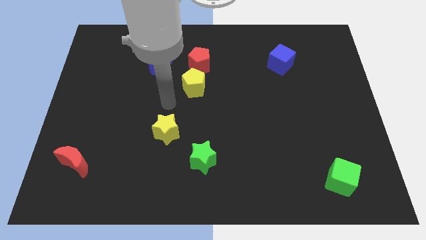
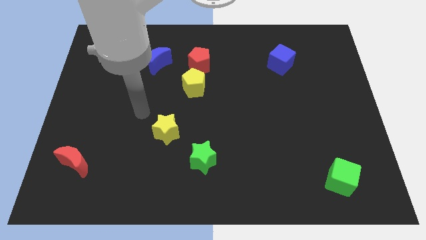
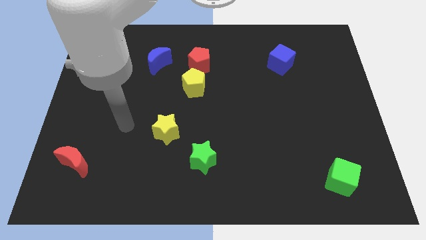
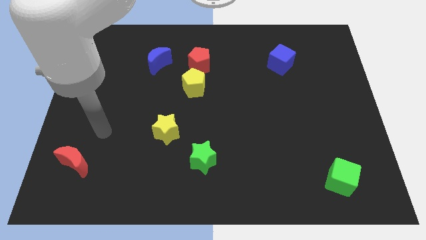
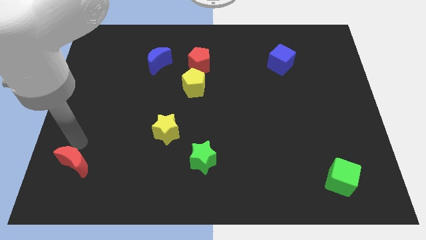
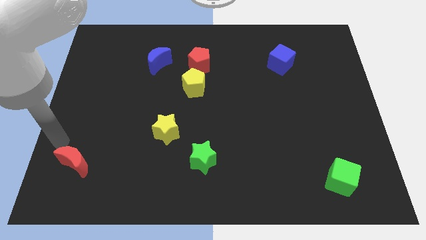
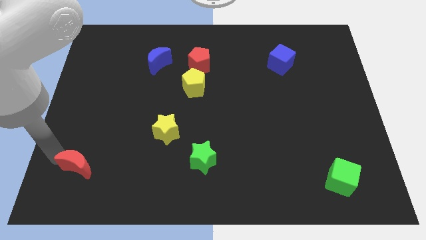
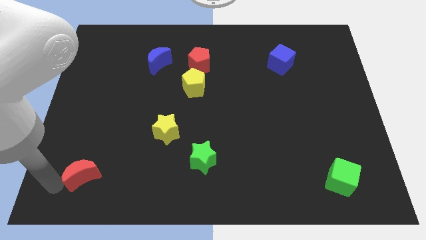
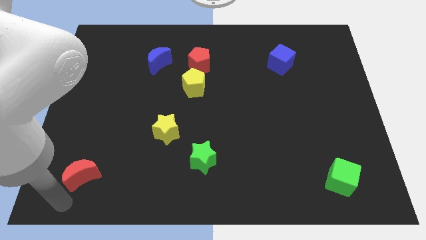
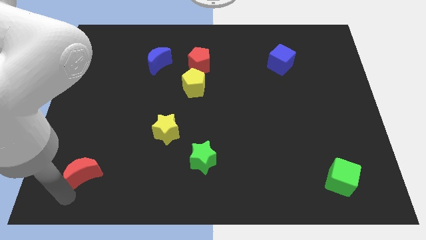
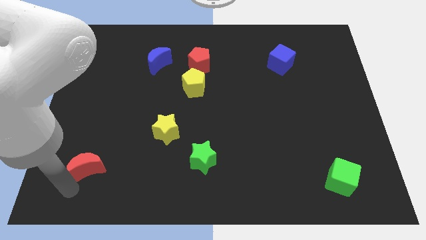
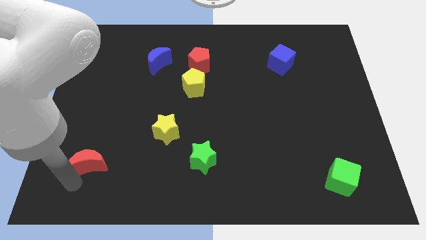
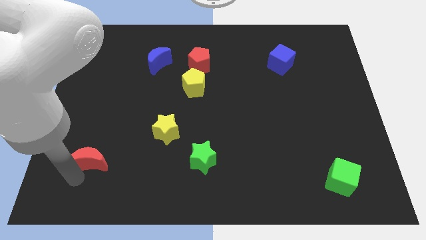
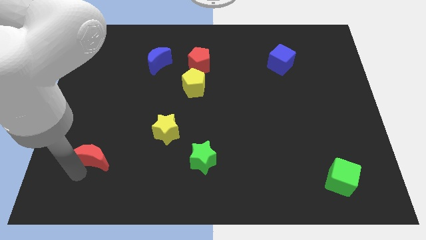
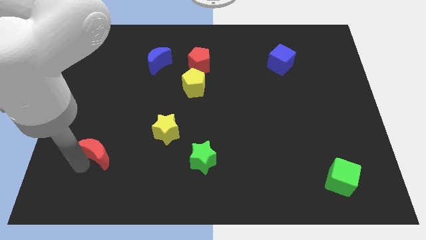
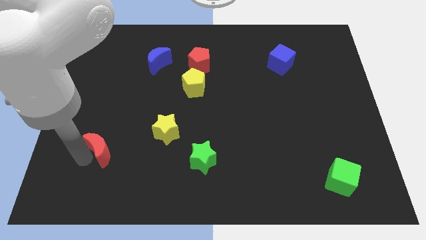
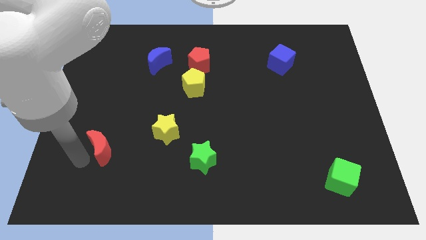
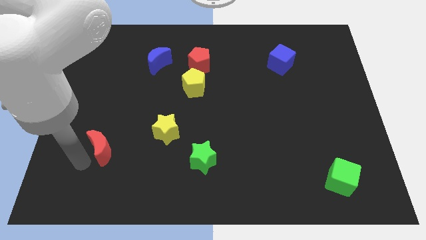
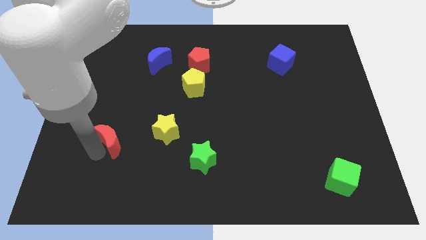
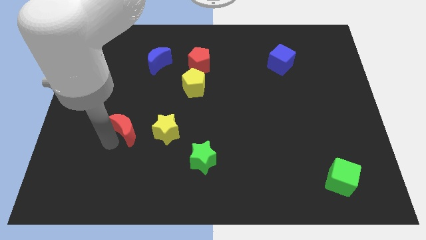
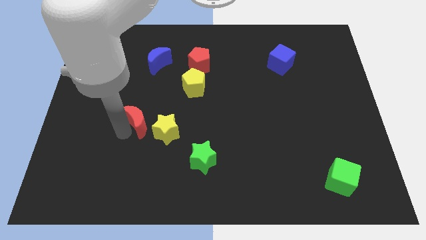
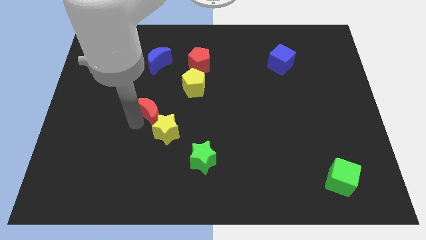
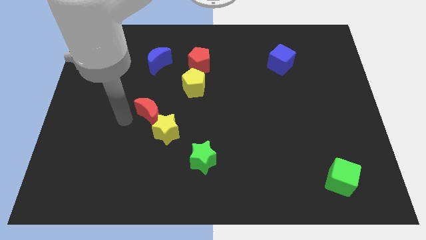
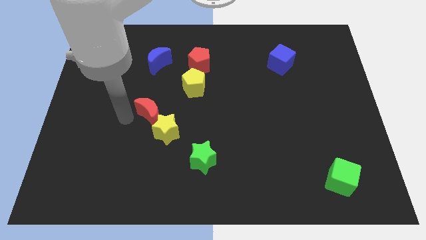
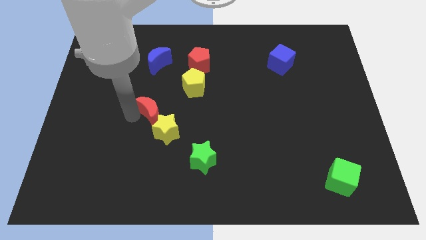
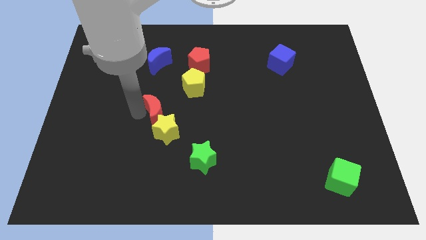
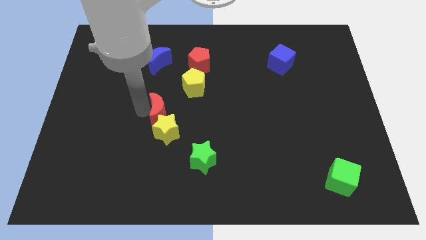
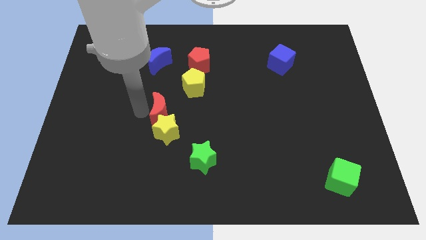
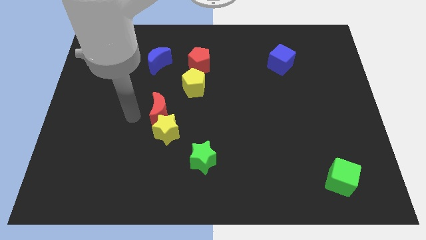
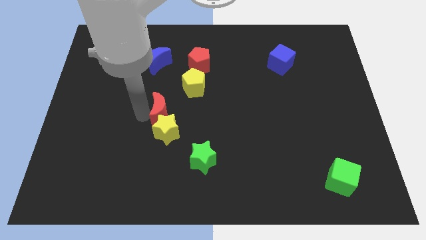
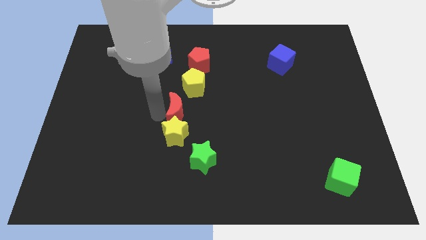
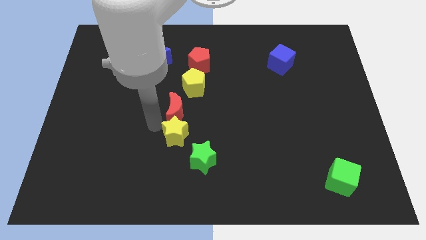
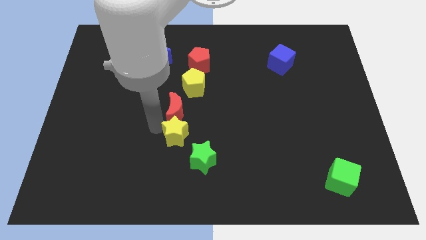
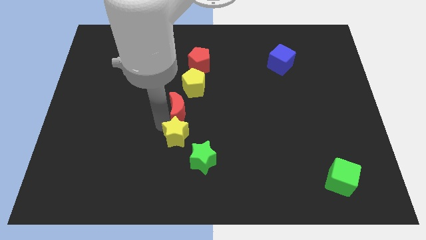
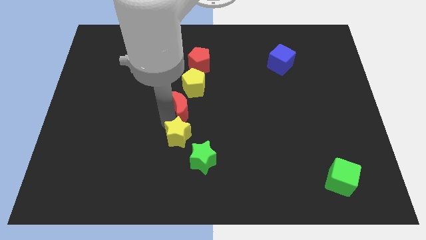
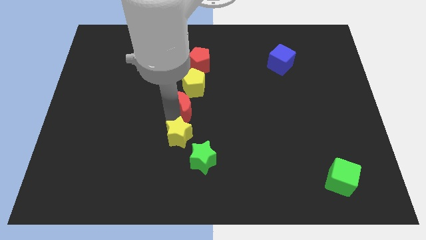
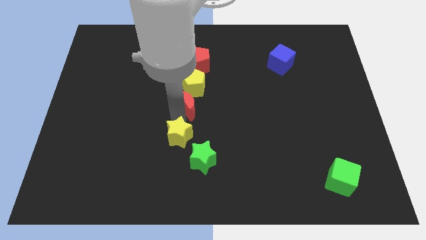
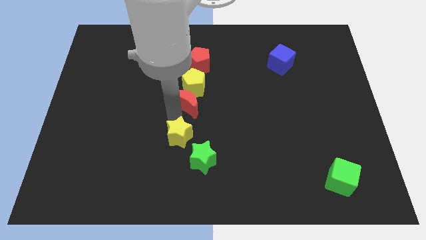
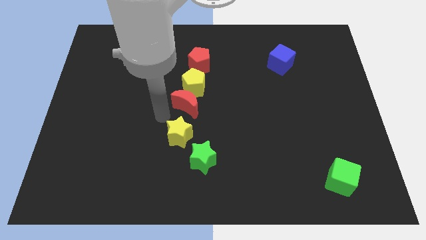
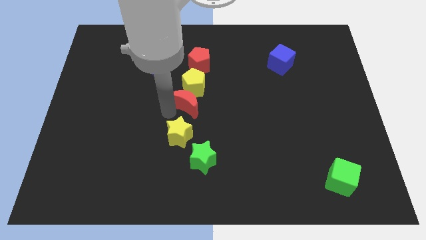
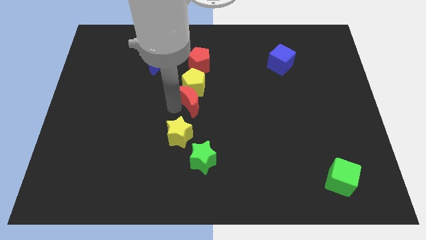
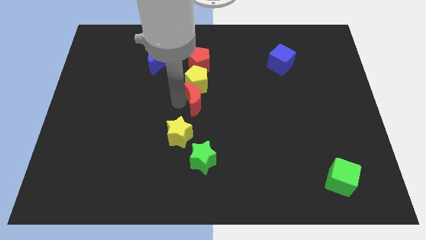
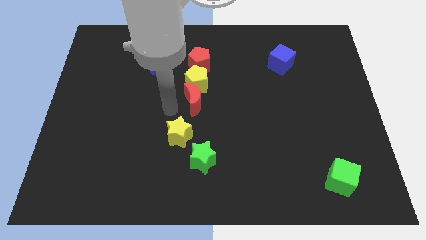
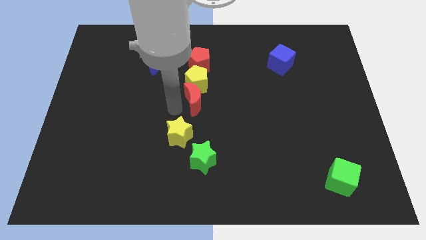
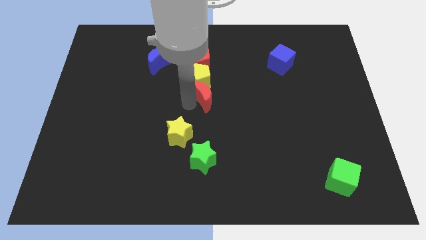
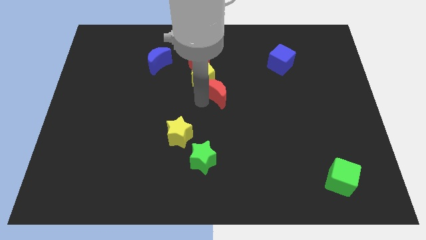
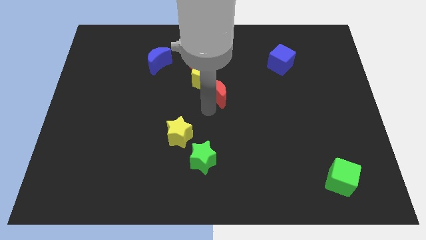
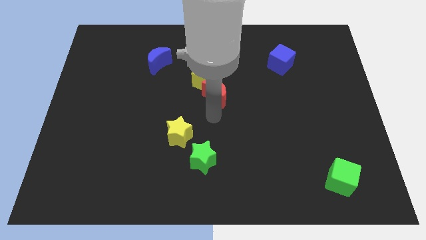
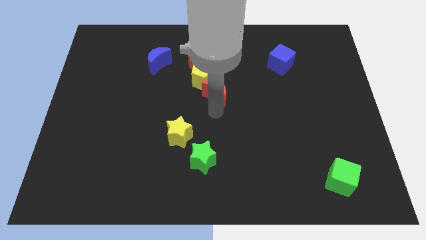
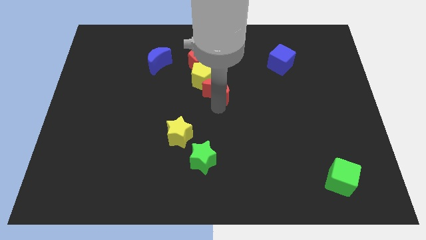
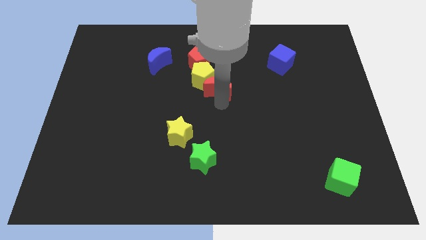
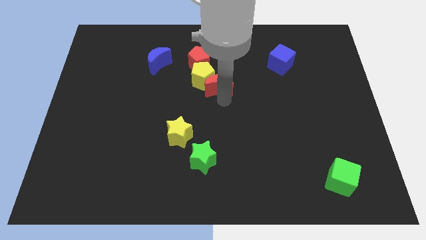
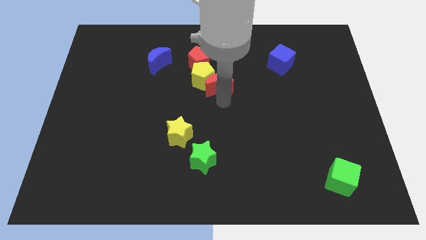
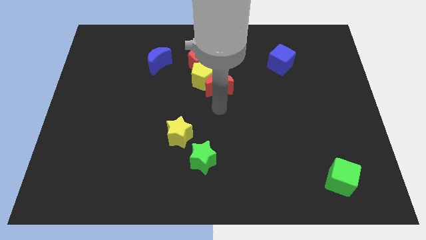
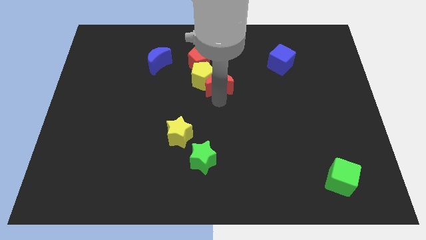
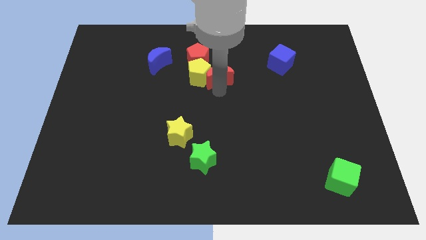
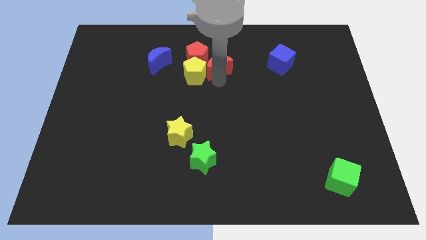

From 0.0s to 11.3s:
move the red moon to the right side of the blue moon

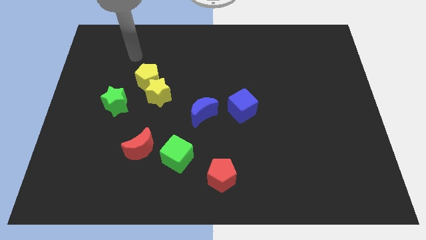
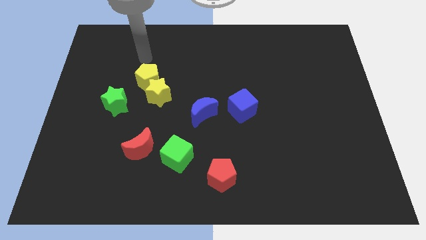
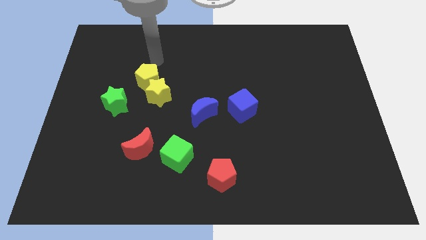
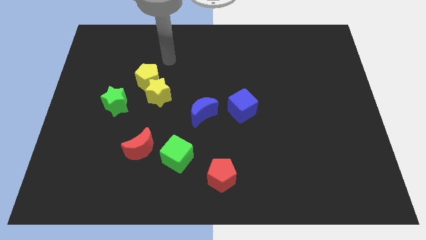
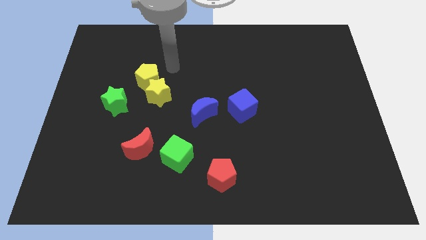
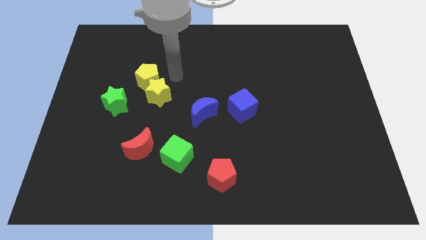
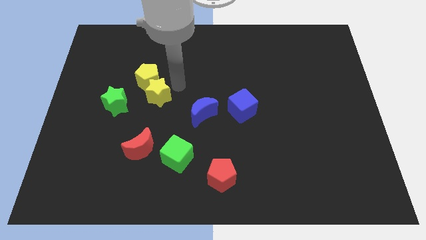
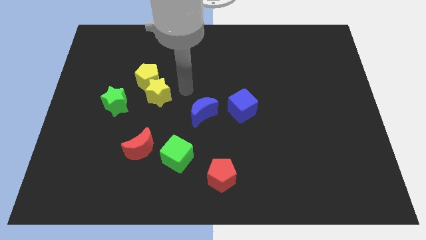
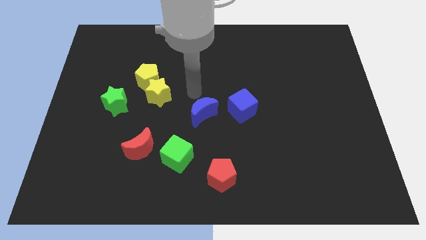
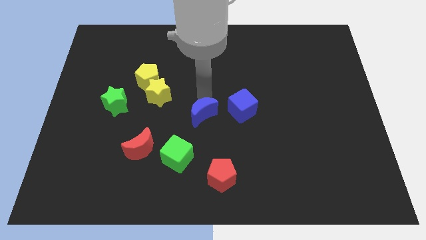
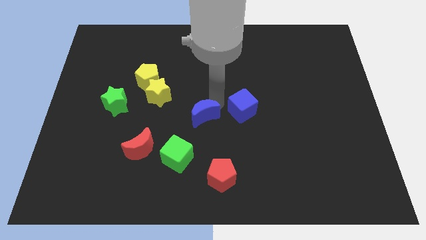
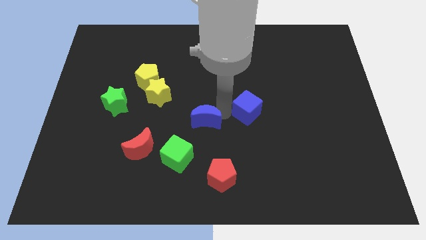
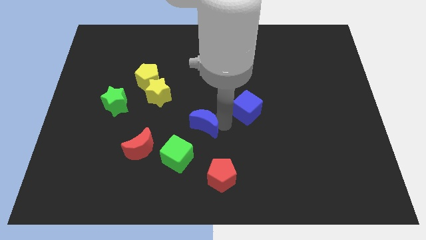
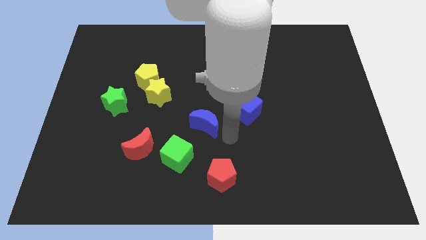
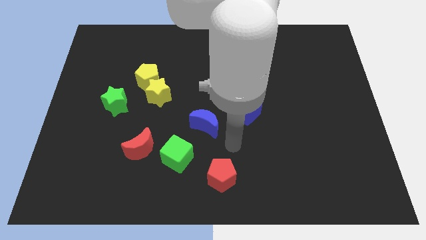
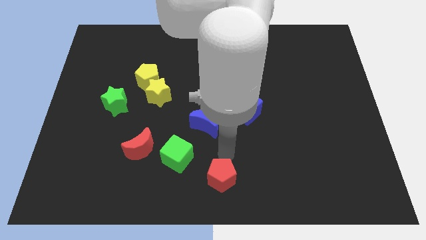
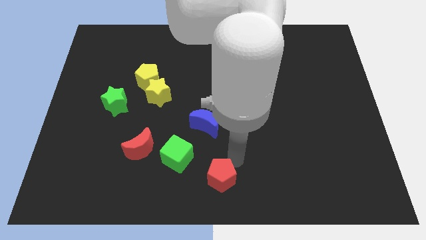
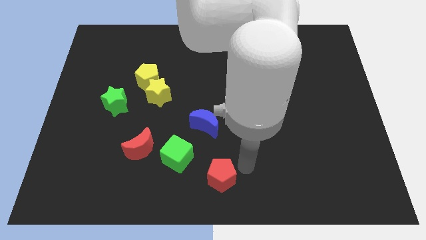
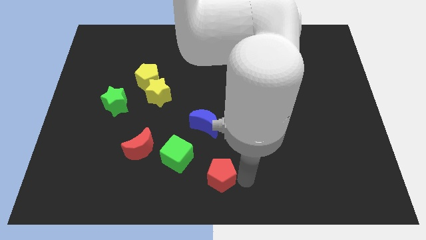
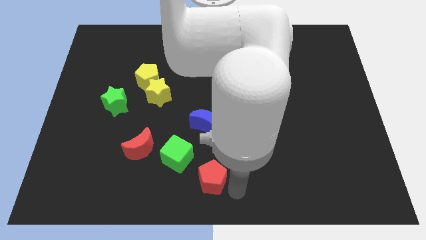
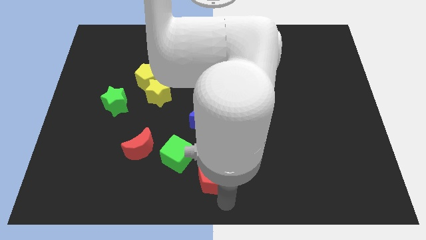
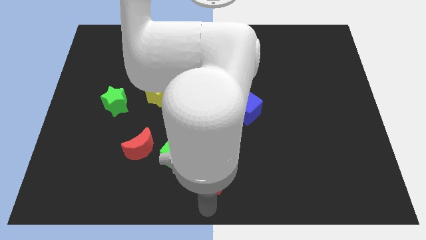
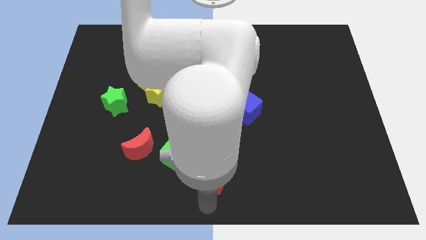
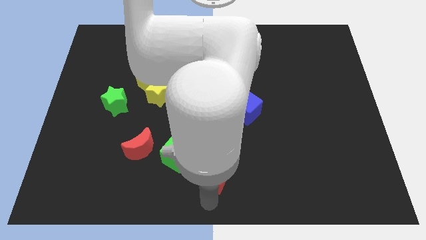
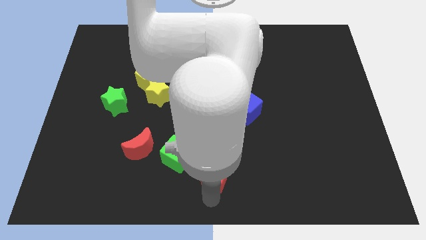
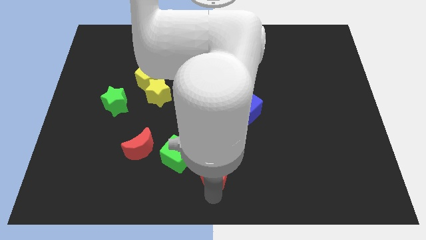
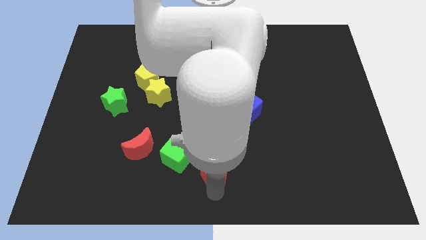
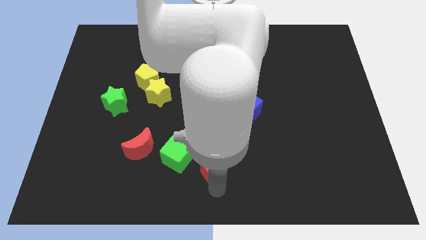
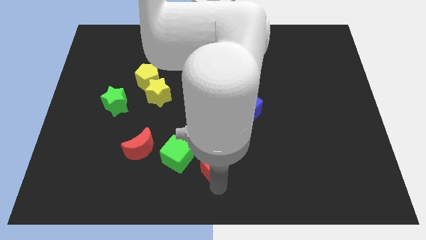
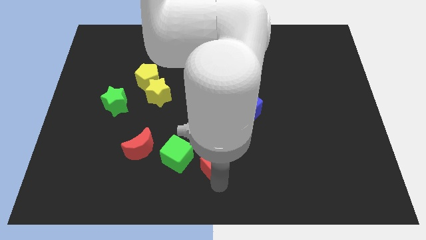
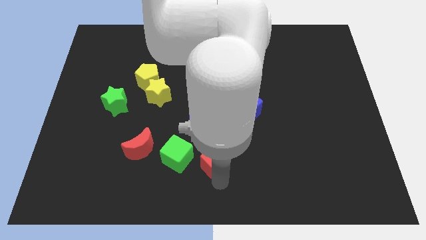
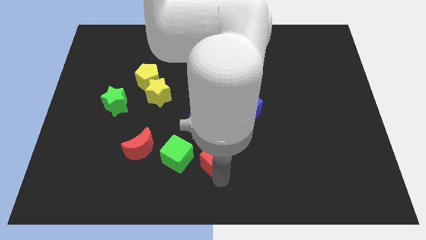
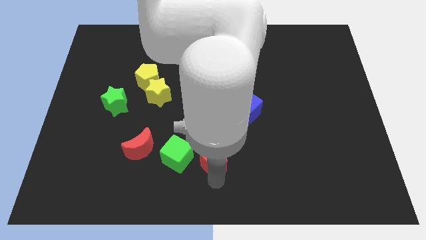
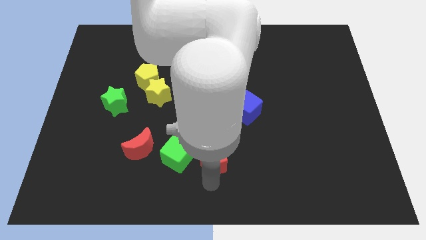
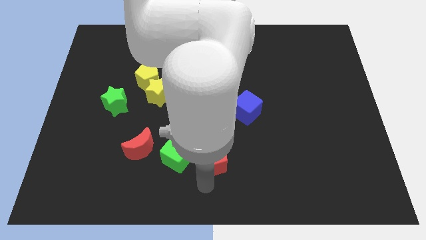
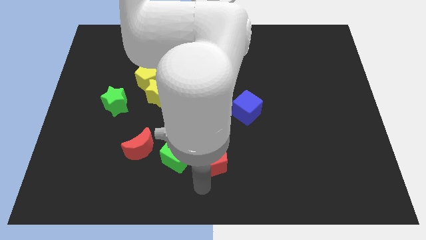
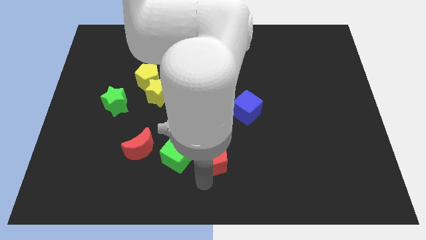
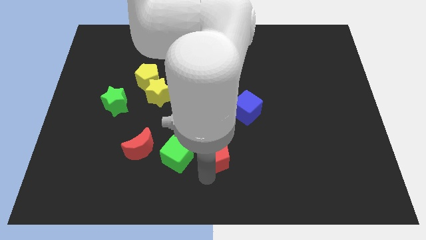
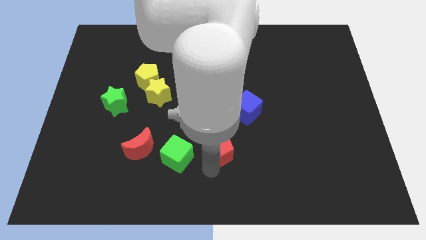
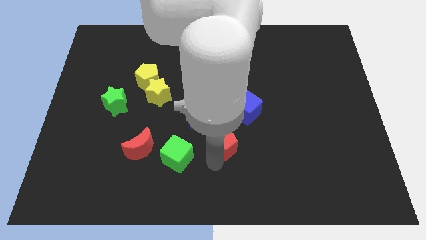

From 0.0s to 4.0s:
slide the red pentagon diagonally down and to the left of the blue cube
